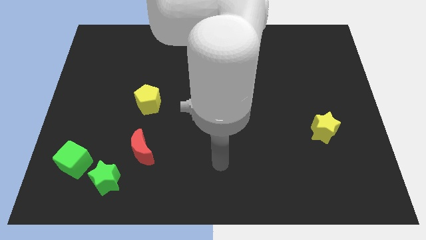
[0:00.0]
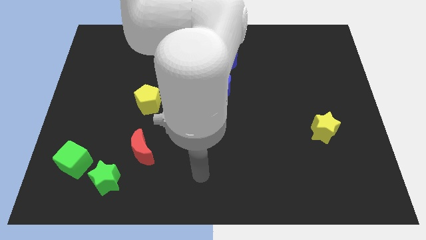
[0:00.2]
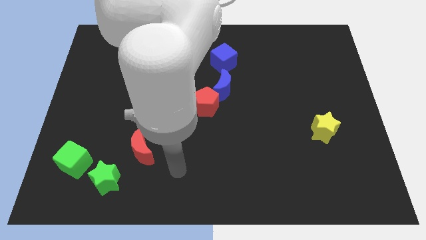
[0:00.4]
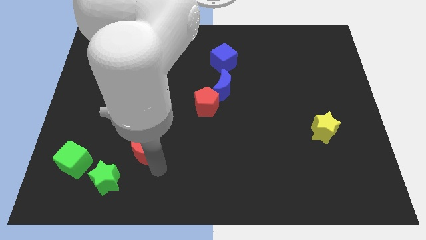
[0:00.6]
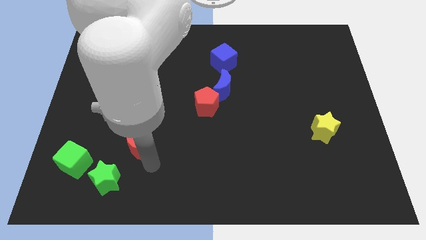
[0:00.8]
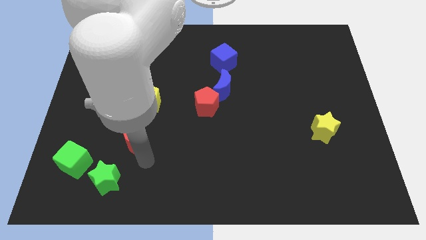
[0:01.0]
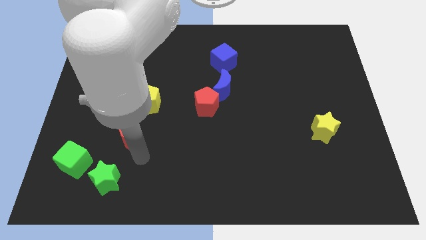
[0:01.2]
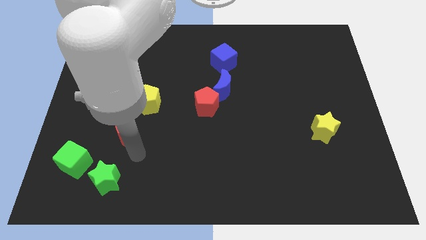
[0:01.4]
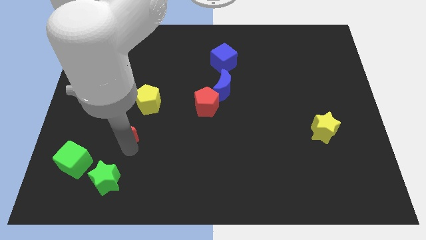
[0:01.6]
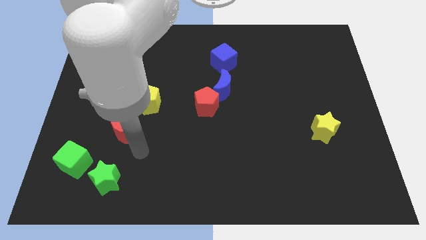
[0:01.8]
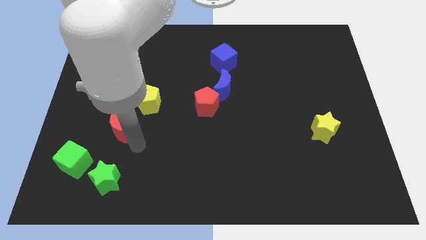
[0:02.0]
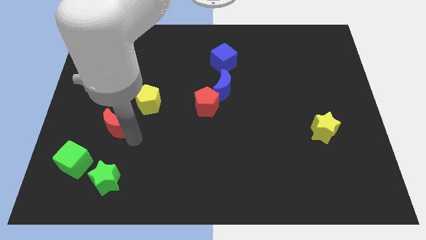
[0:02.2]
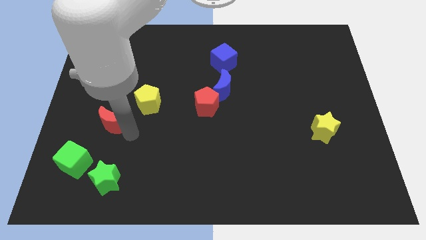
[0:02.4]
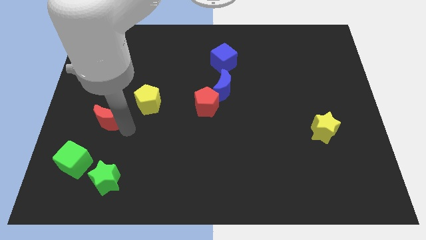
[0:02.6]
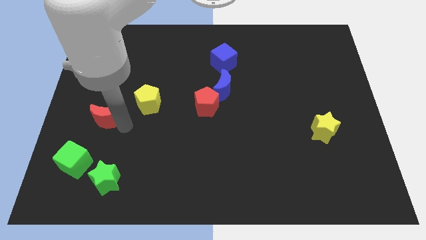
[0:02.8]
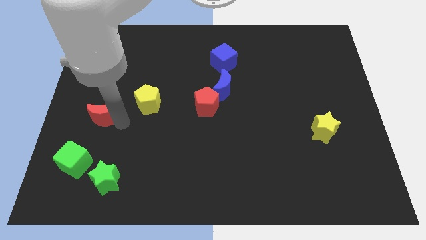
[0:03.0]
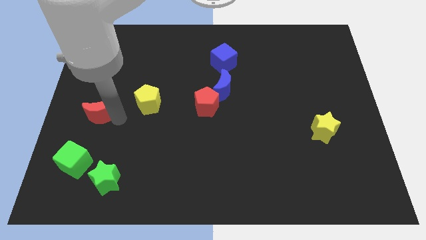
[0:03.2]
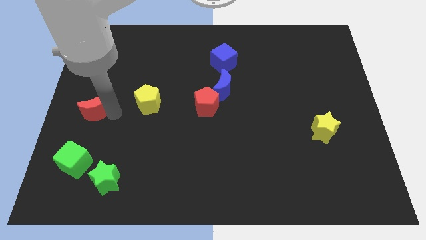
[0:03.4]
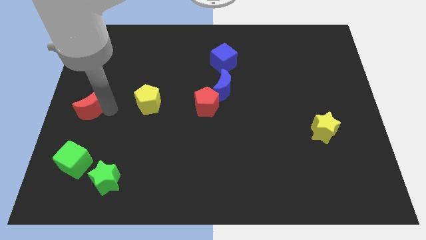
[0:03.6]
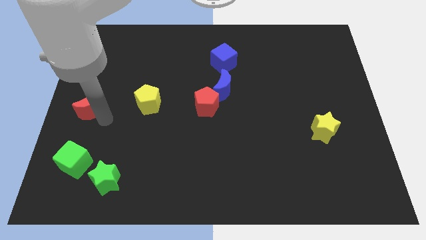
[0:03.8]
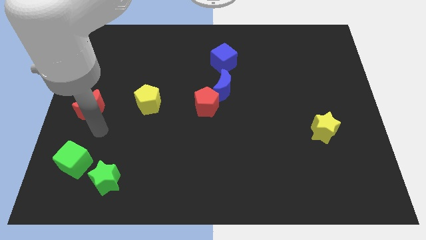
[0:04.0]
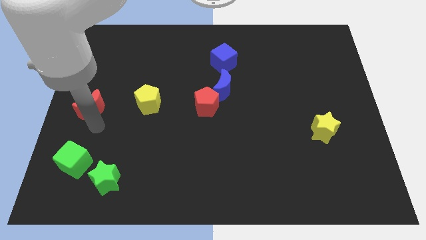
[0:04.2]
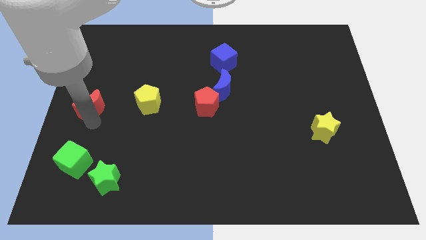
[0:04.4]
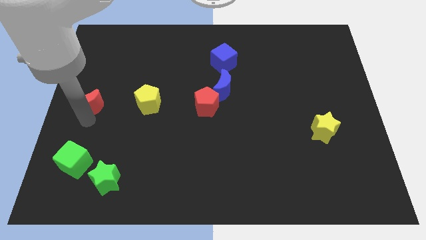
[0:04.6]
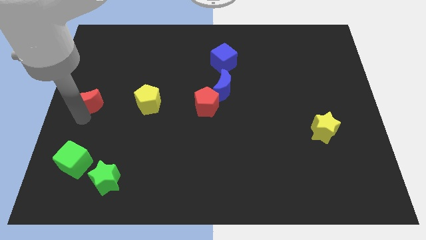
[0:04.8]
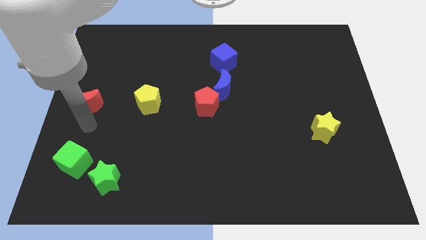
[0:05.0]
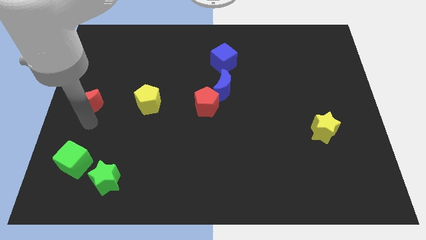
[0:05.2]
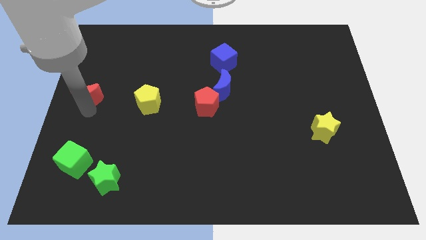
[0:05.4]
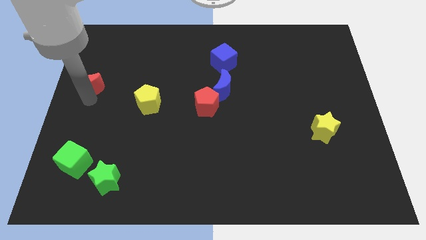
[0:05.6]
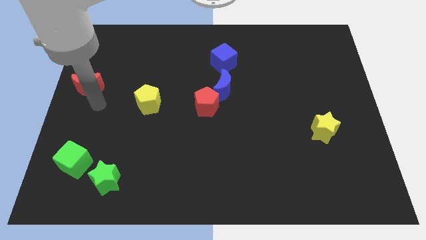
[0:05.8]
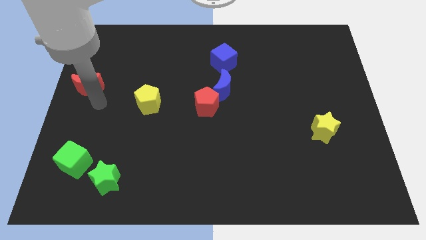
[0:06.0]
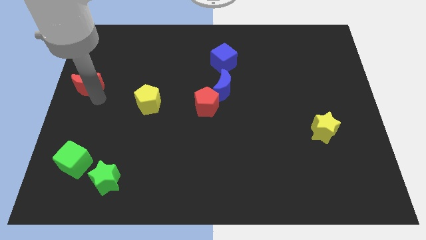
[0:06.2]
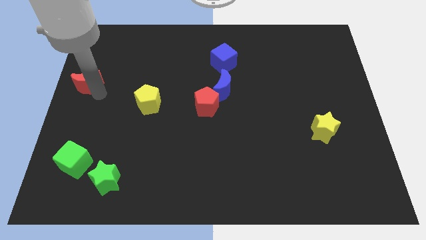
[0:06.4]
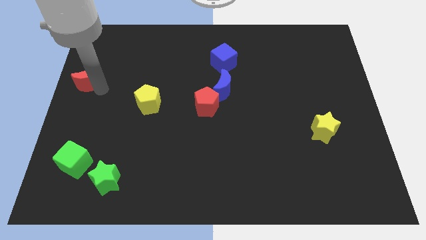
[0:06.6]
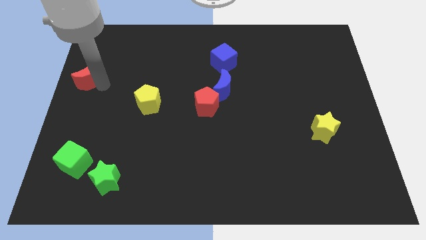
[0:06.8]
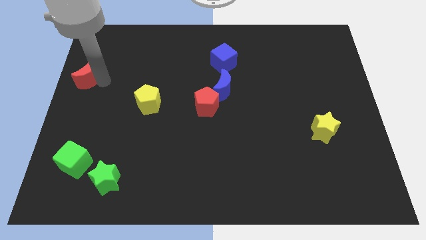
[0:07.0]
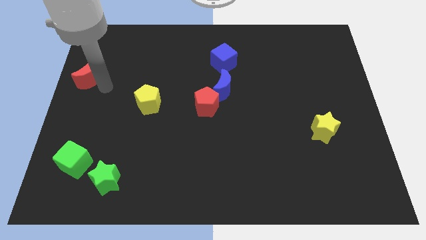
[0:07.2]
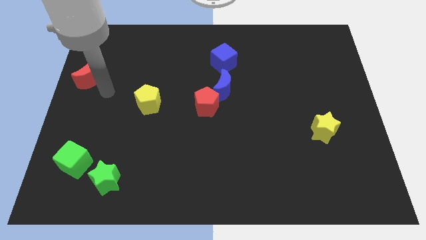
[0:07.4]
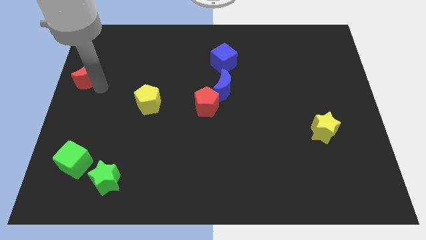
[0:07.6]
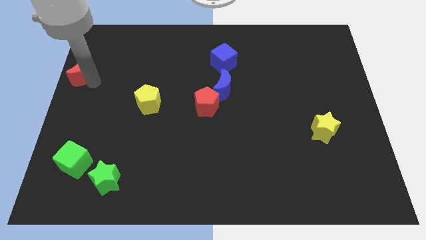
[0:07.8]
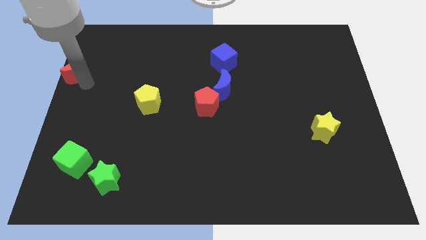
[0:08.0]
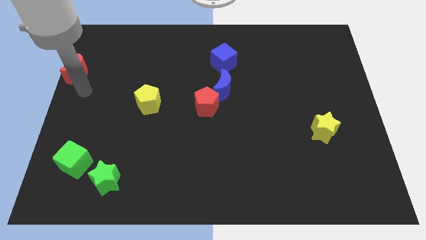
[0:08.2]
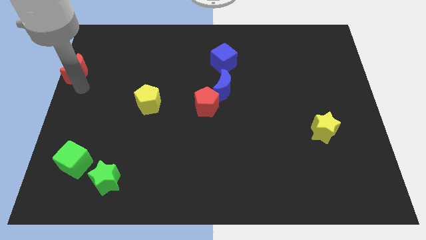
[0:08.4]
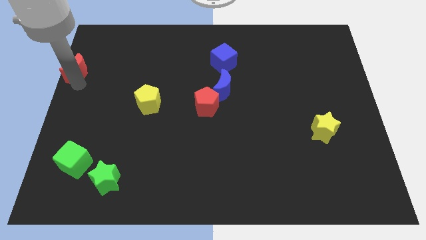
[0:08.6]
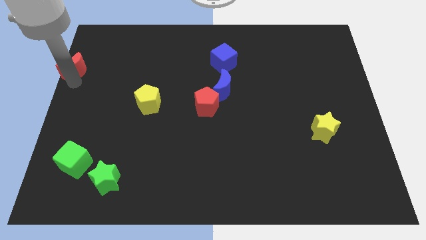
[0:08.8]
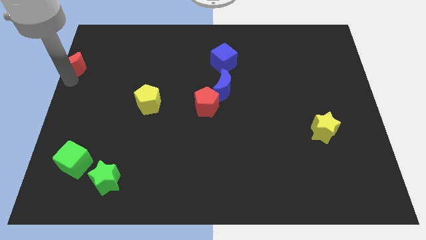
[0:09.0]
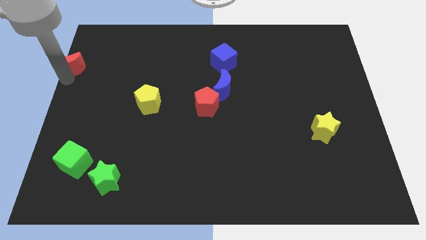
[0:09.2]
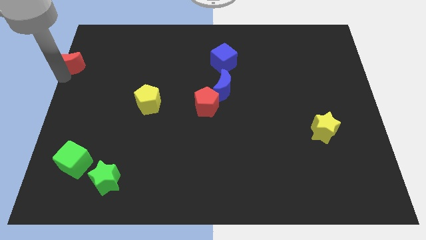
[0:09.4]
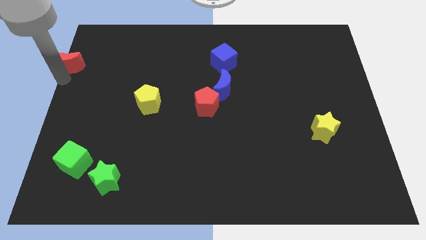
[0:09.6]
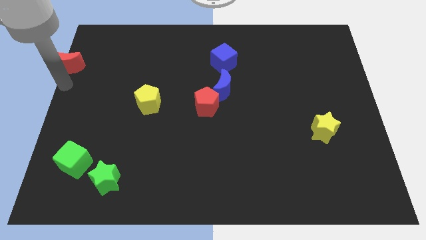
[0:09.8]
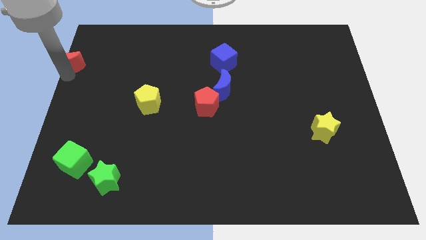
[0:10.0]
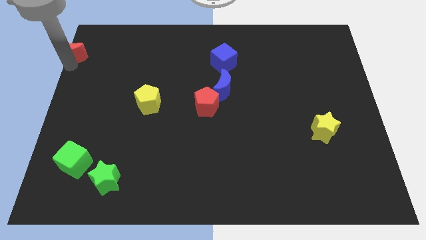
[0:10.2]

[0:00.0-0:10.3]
slide the red moon to the top left corner
